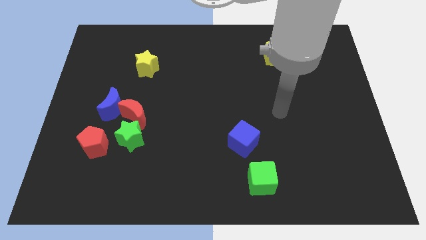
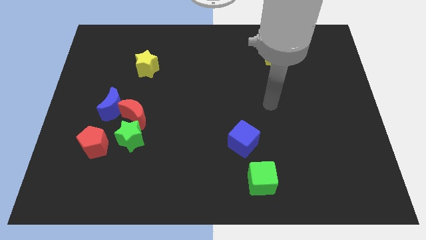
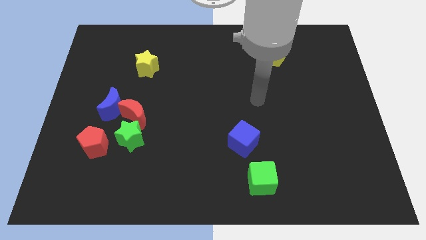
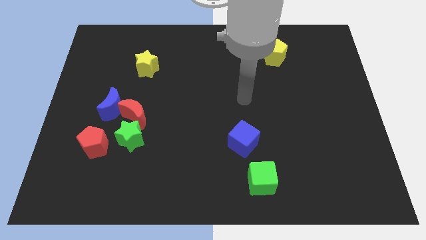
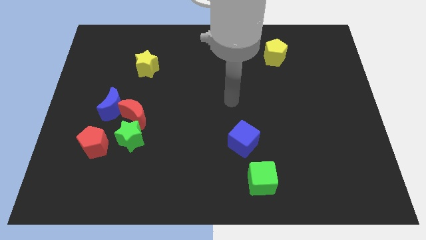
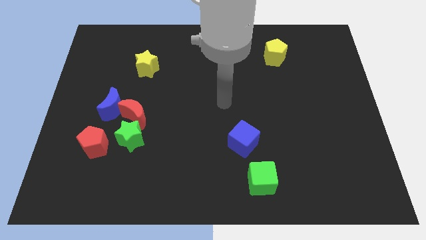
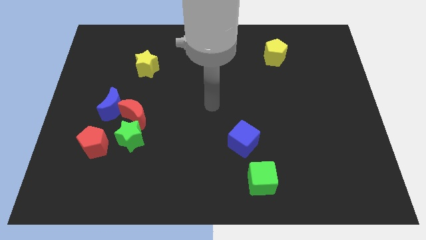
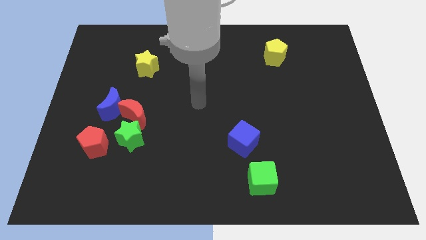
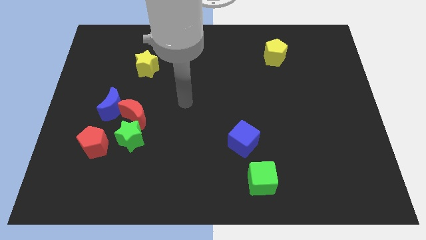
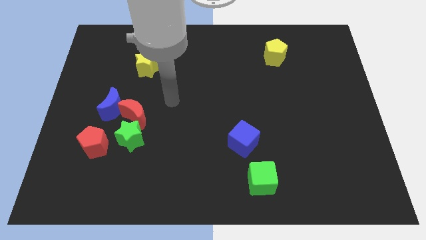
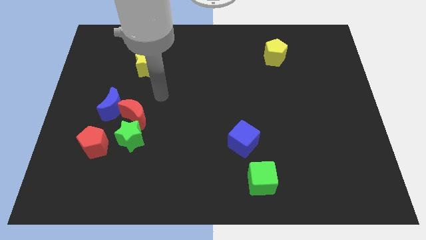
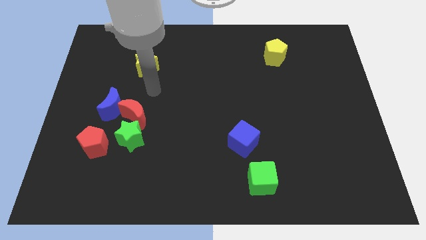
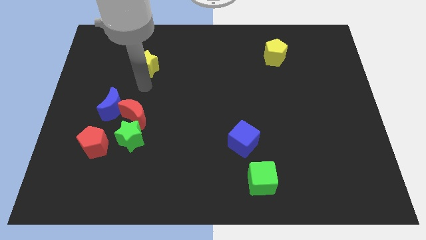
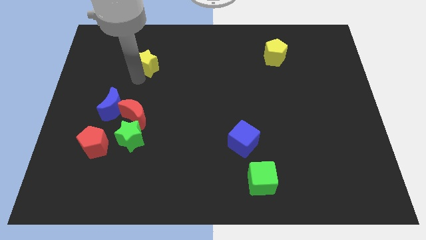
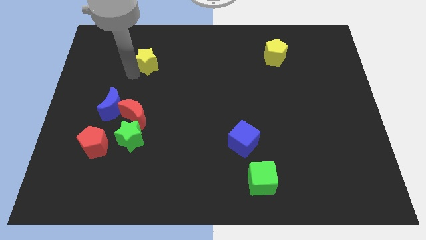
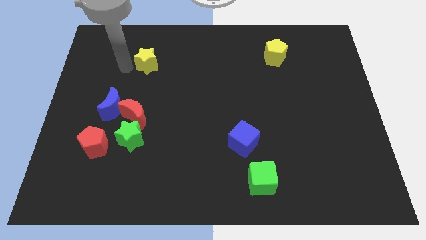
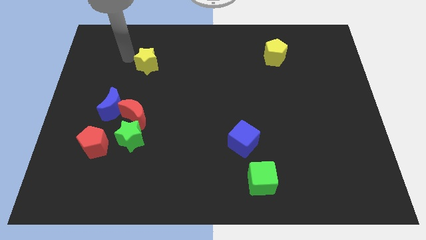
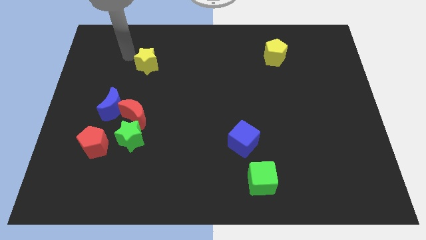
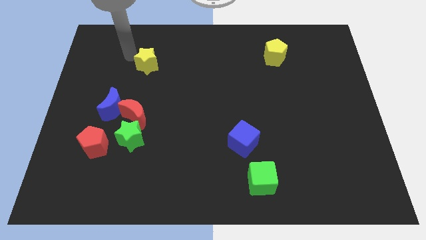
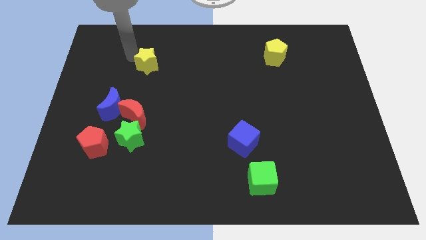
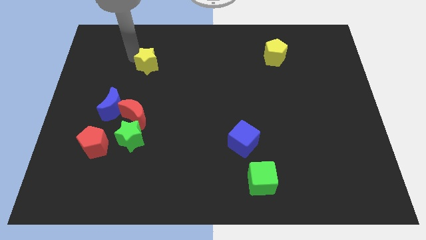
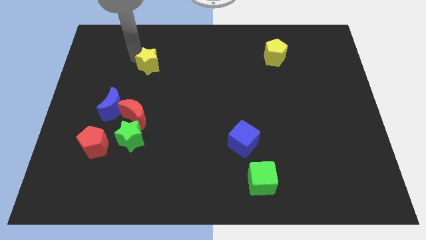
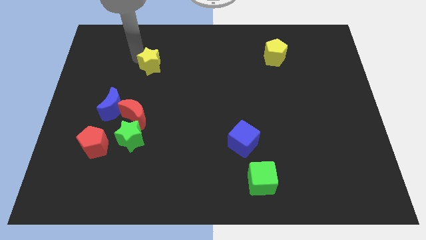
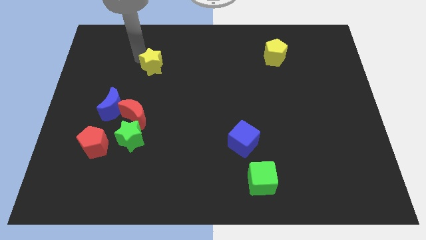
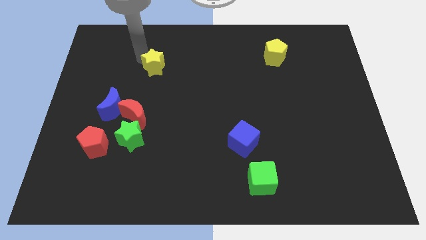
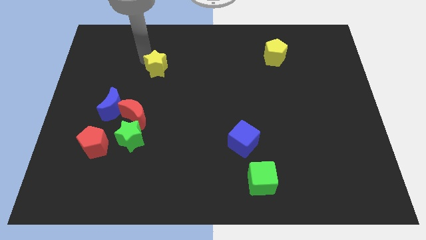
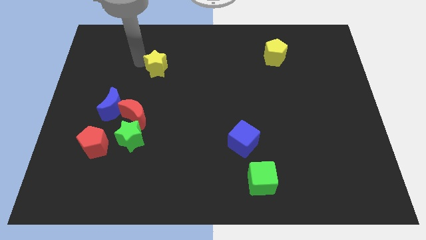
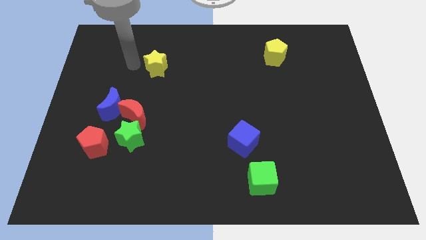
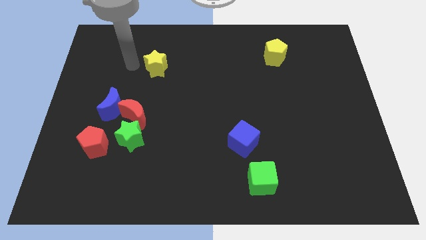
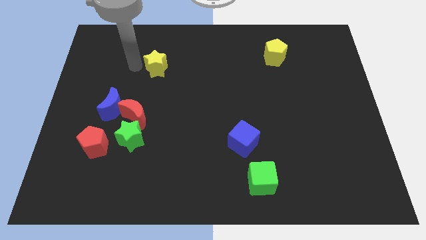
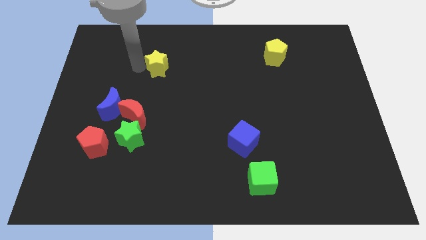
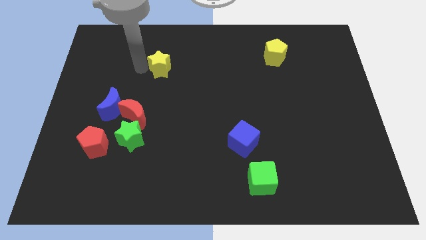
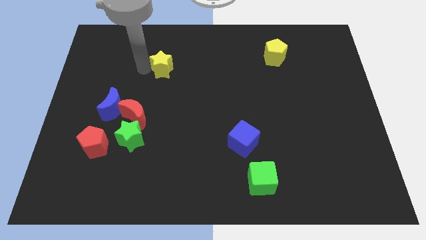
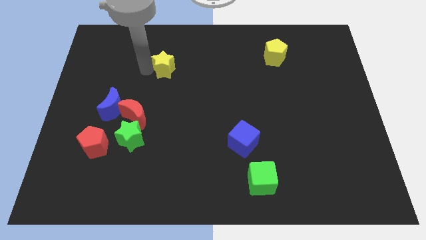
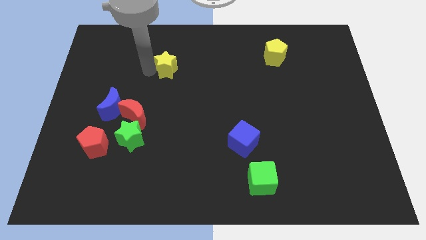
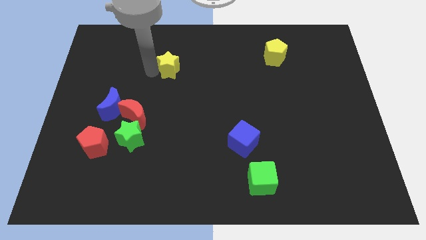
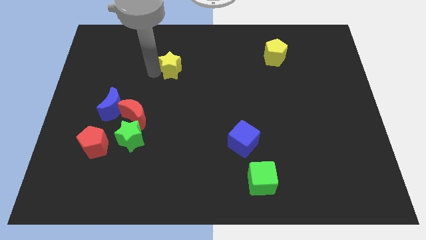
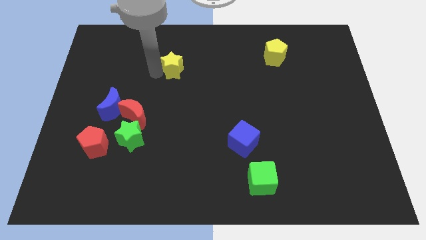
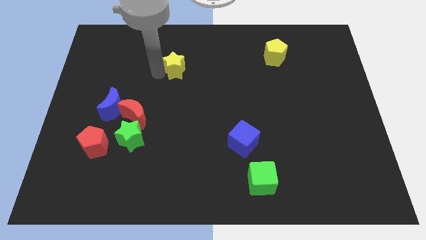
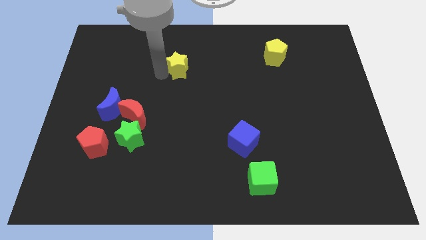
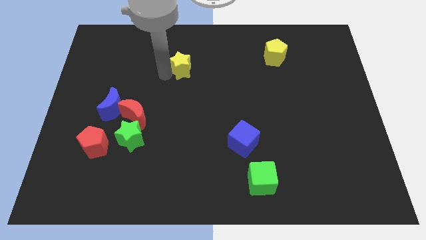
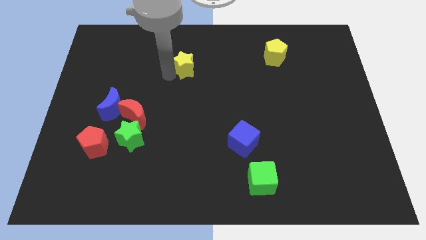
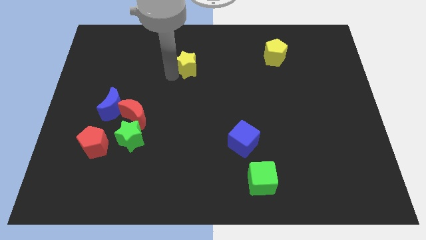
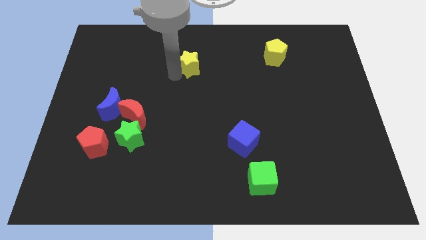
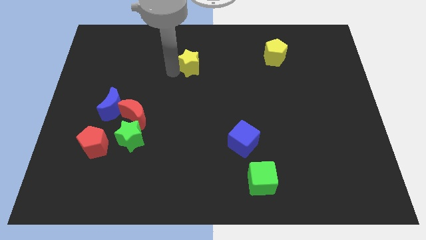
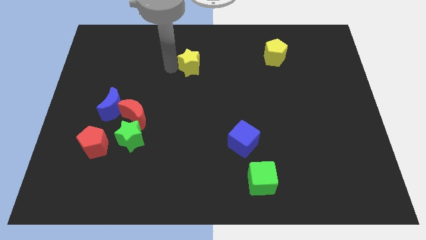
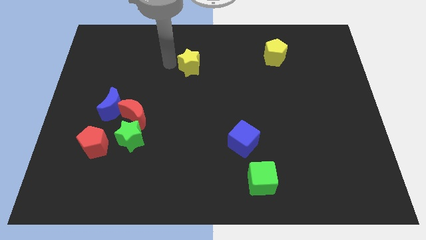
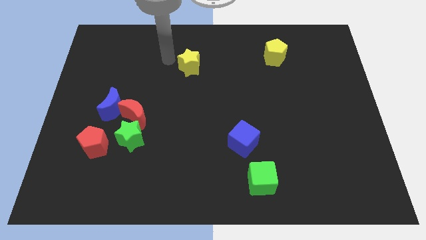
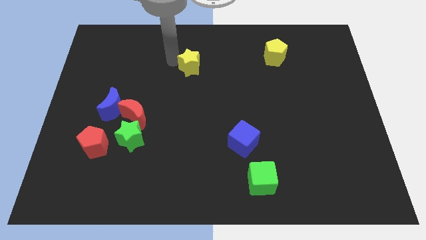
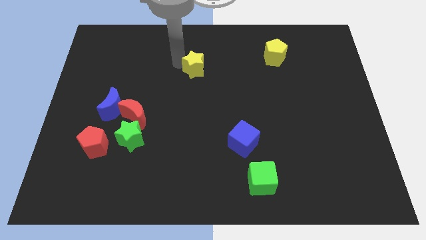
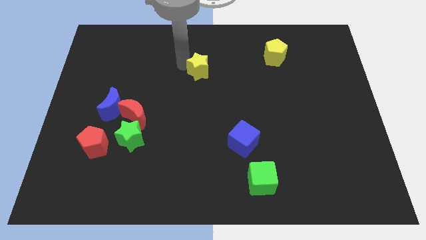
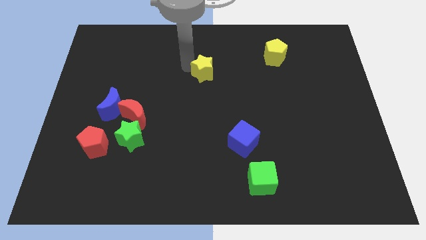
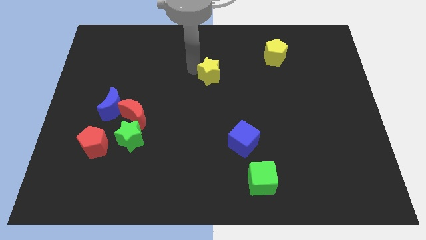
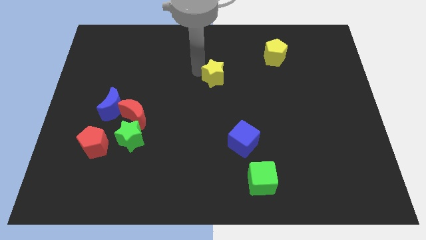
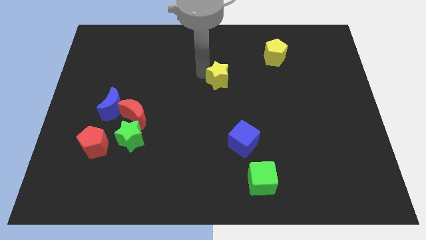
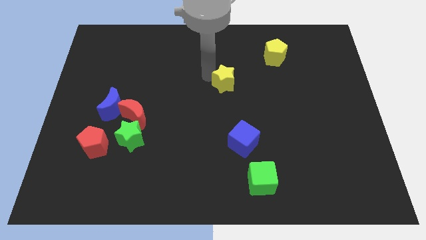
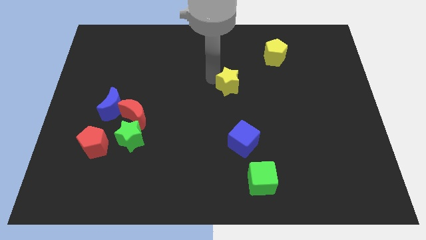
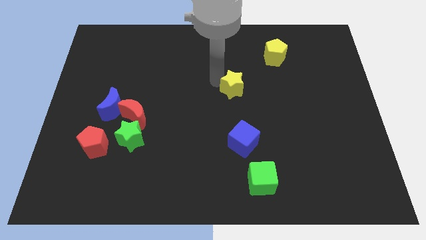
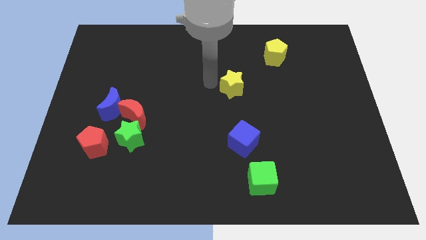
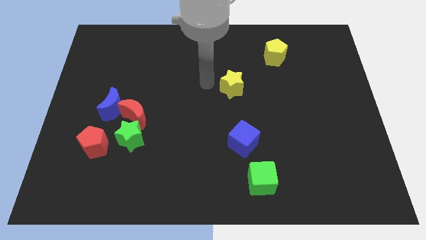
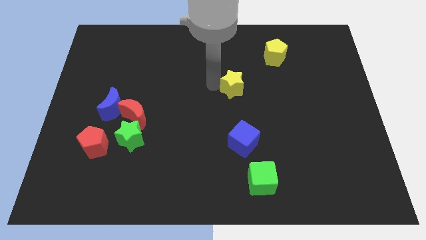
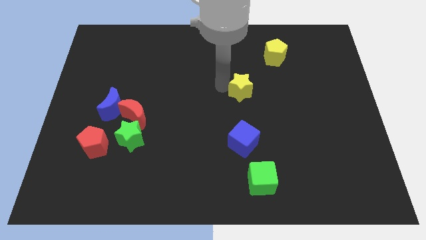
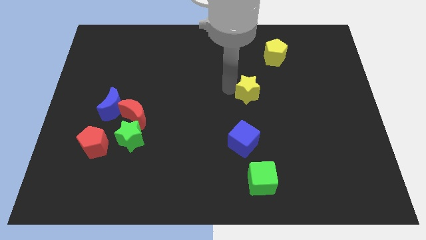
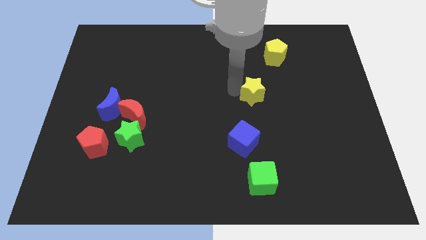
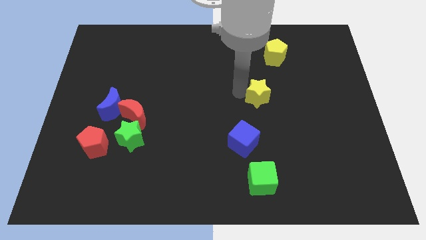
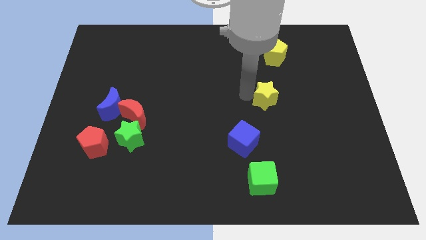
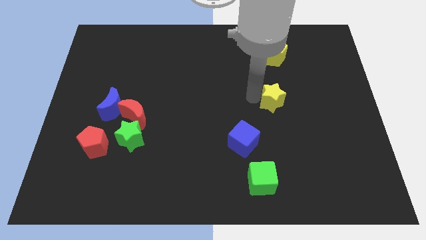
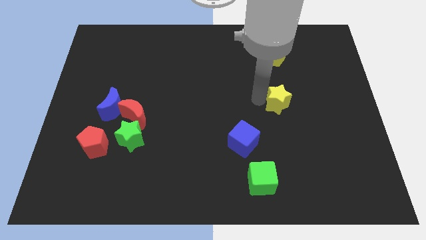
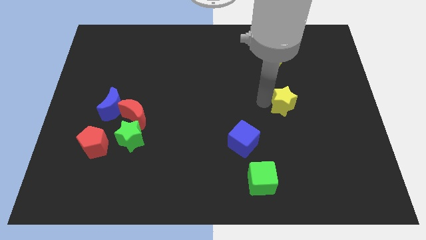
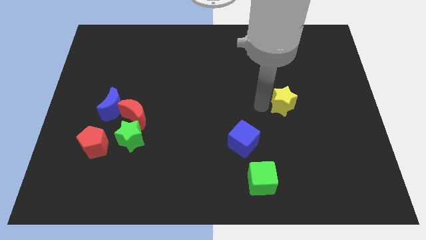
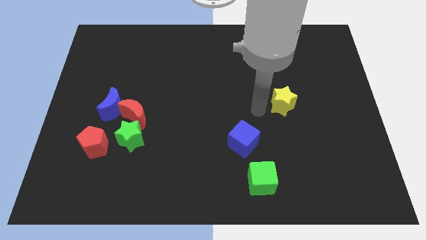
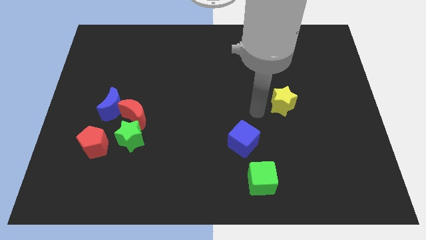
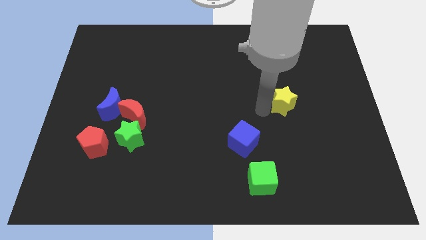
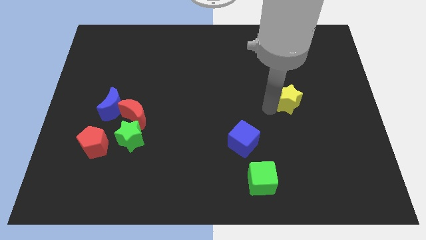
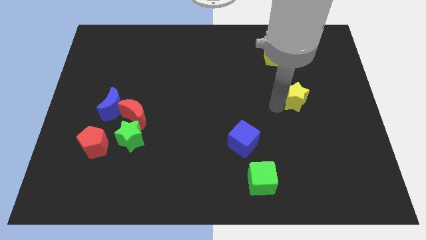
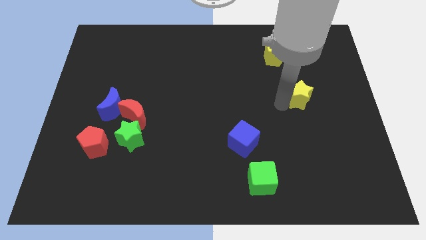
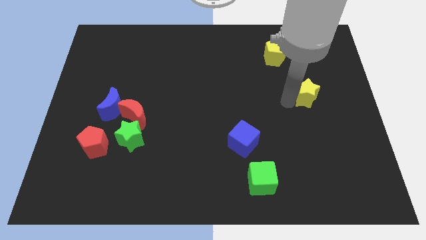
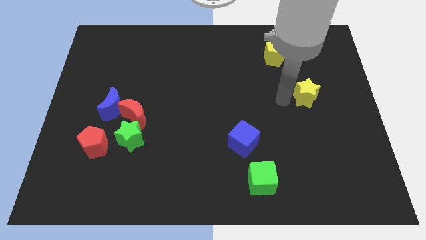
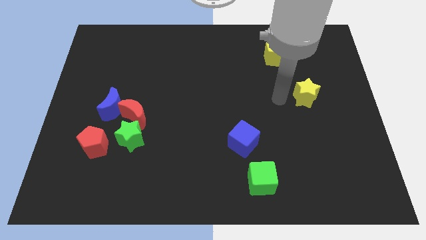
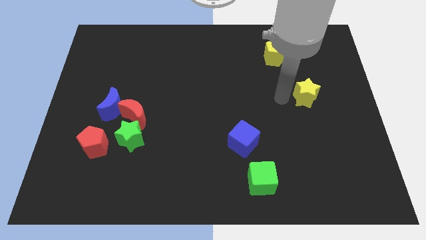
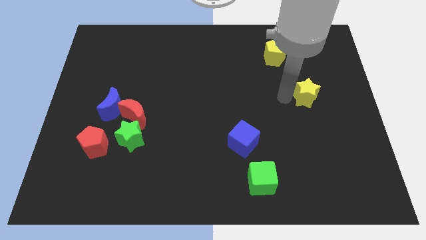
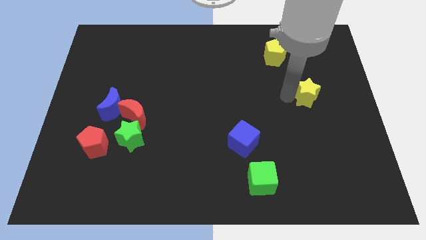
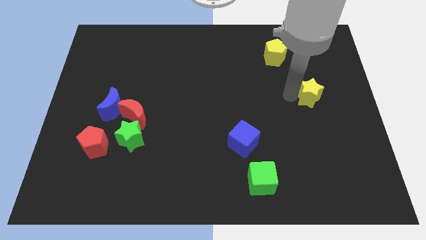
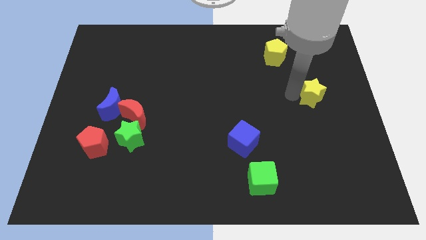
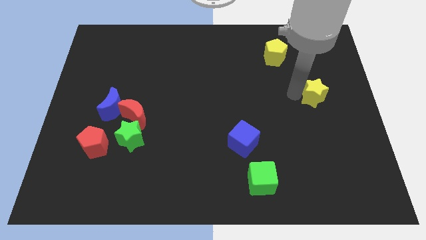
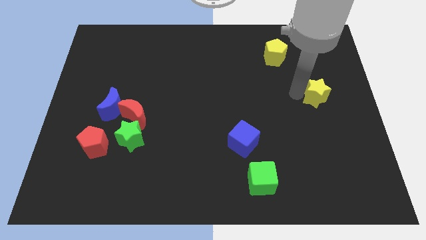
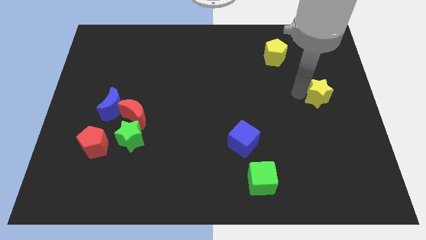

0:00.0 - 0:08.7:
push the yellow star to the right side of the board
